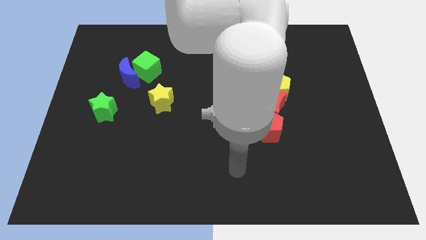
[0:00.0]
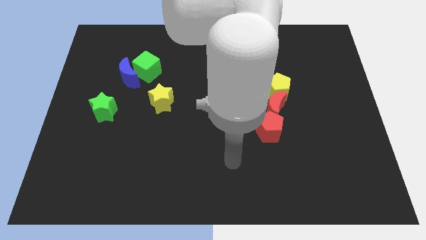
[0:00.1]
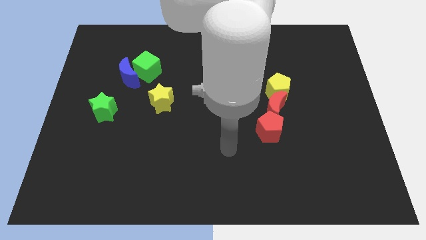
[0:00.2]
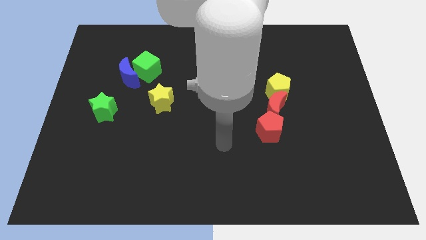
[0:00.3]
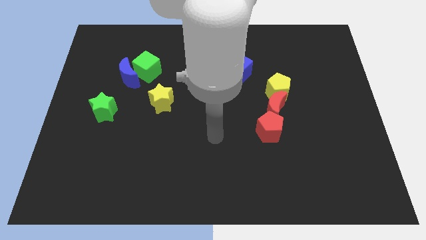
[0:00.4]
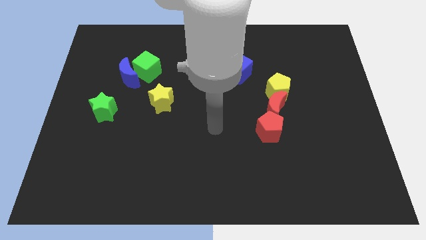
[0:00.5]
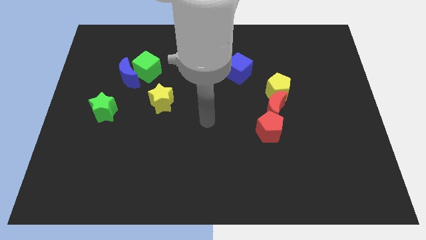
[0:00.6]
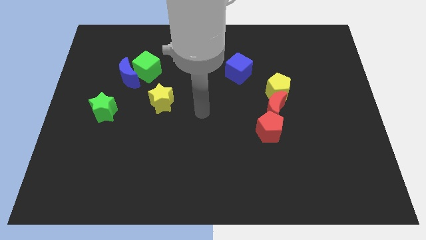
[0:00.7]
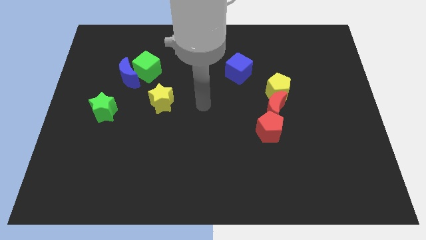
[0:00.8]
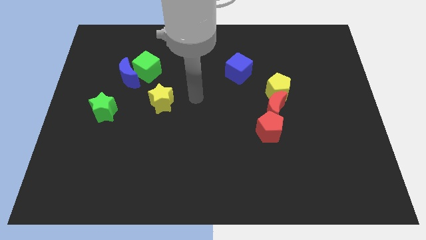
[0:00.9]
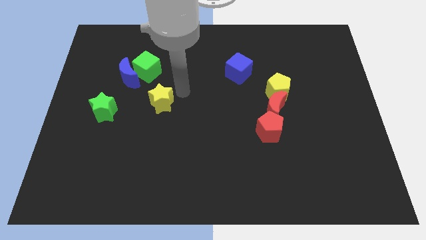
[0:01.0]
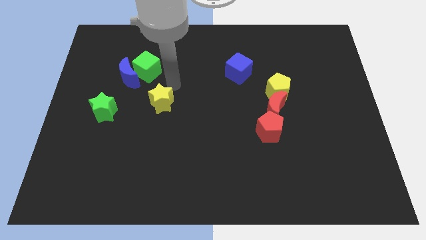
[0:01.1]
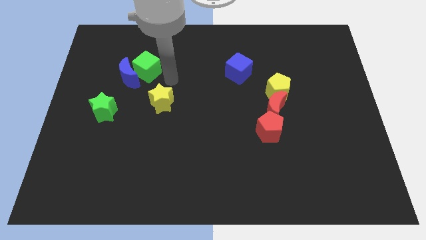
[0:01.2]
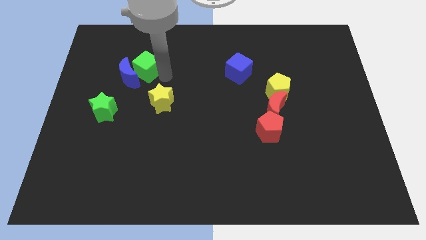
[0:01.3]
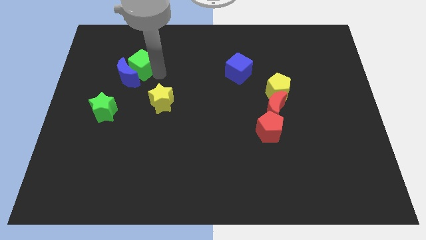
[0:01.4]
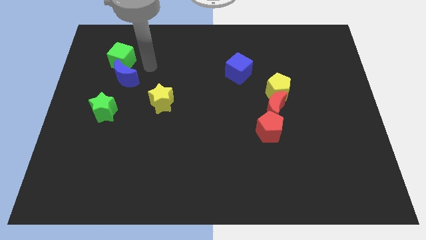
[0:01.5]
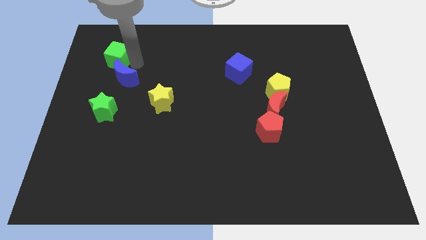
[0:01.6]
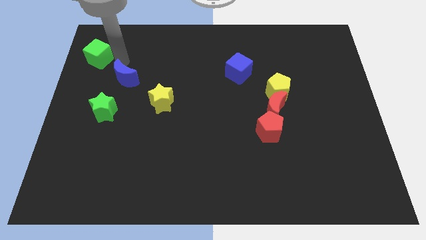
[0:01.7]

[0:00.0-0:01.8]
separate the blue moon from the green cube

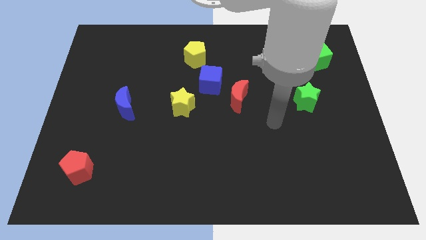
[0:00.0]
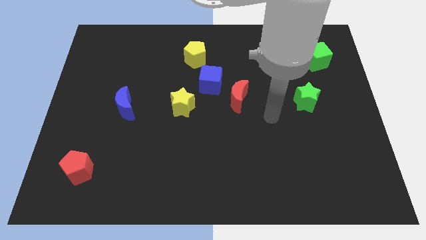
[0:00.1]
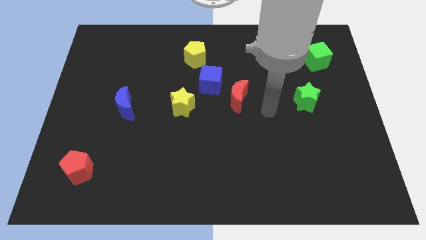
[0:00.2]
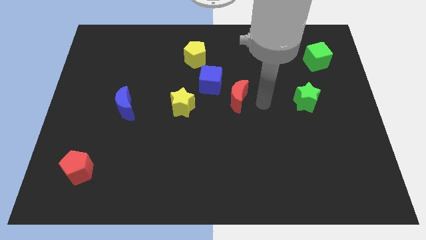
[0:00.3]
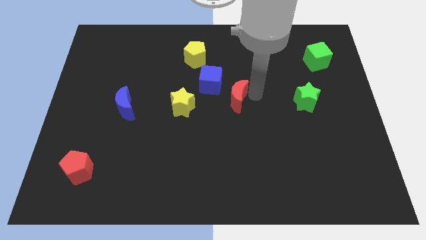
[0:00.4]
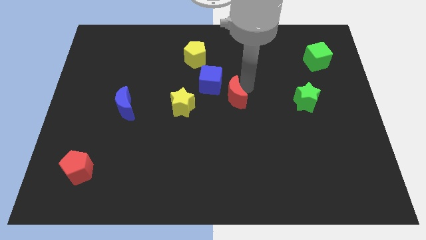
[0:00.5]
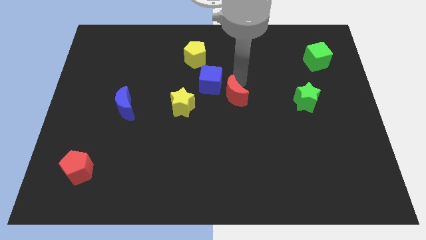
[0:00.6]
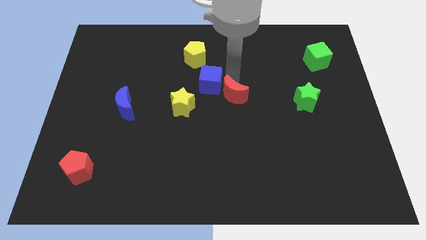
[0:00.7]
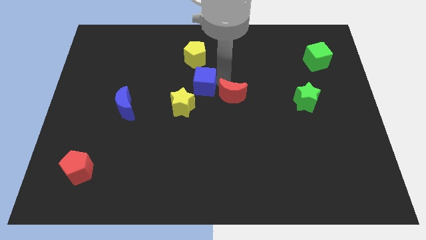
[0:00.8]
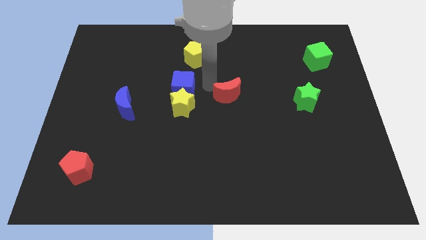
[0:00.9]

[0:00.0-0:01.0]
separate the red moon from the blue cube

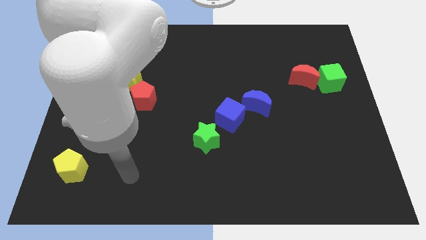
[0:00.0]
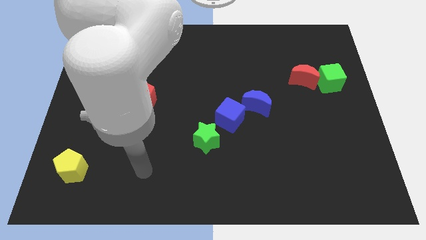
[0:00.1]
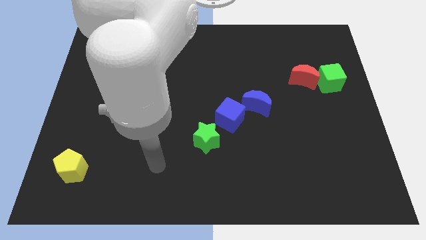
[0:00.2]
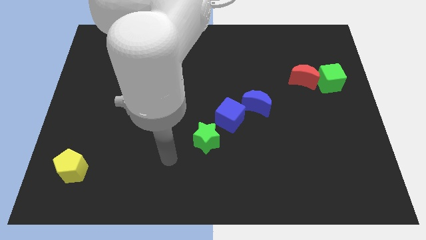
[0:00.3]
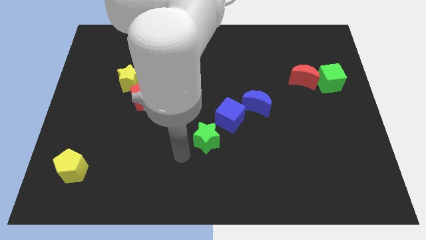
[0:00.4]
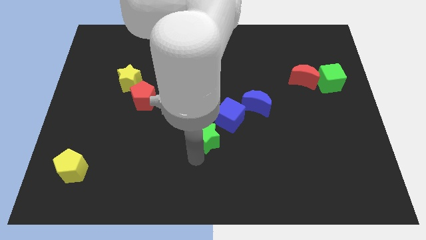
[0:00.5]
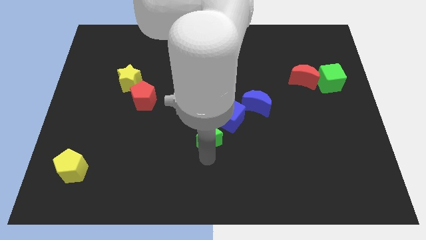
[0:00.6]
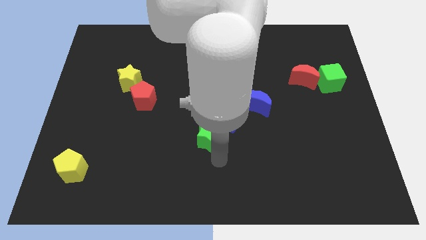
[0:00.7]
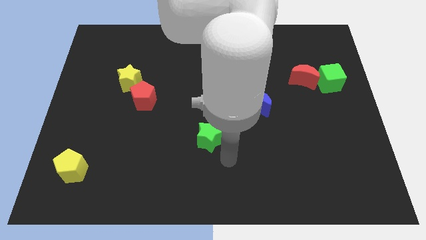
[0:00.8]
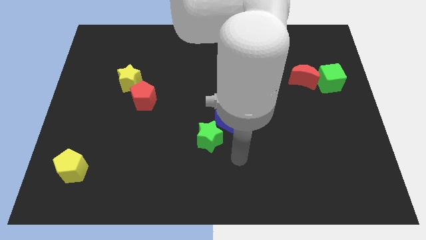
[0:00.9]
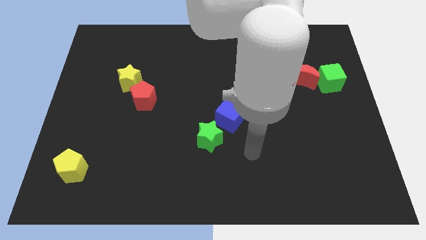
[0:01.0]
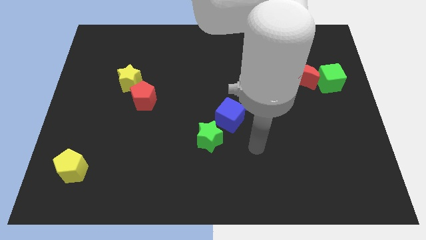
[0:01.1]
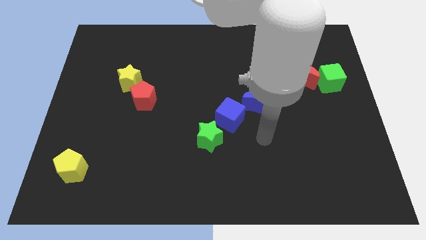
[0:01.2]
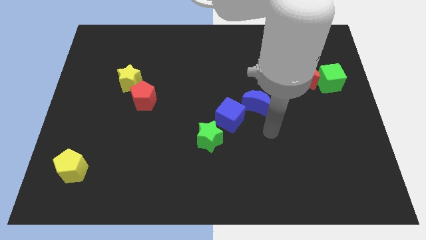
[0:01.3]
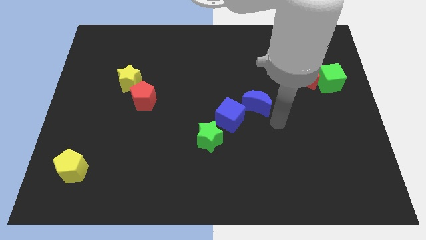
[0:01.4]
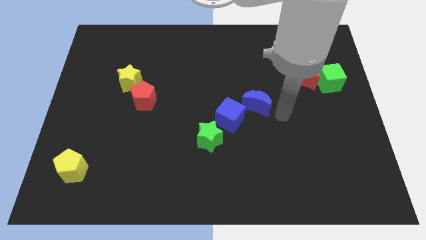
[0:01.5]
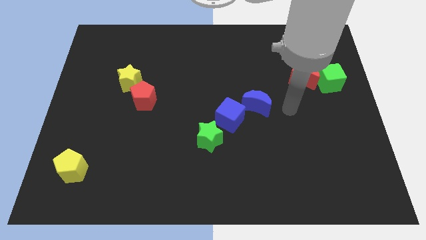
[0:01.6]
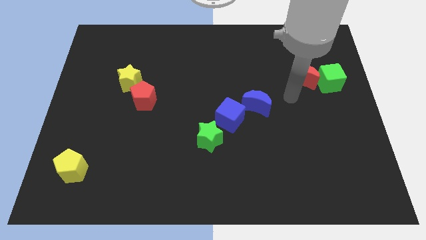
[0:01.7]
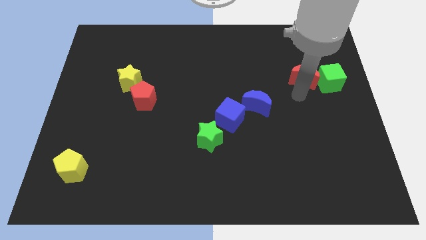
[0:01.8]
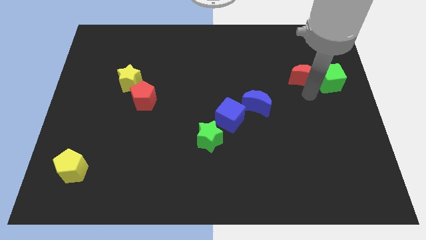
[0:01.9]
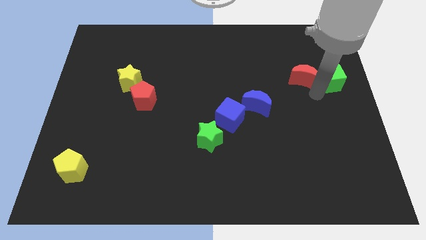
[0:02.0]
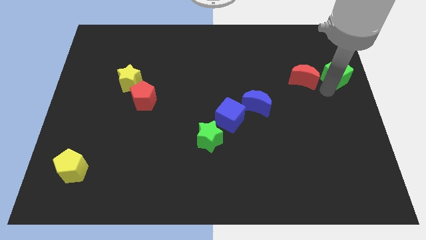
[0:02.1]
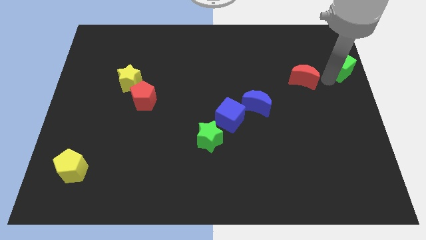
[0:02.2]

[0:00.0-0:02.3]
move the red moon away from the green cube

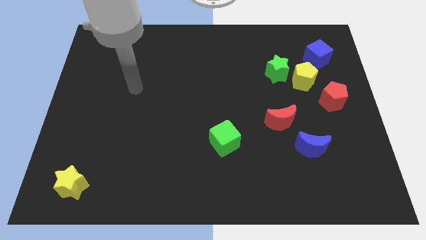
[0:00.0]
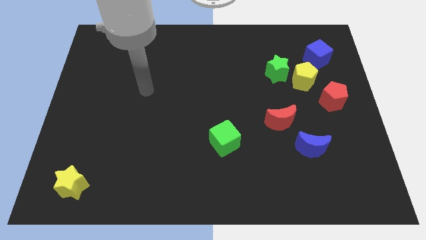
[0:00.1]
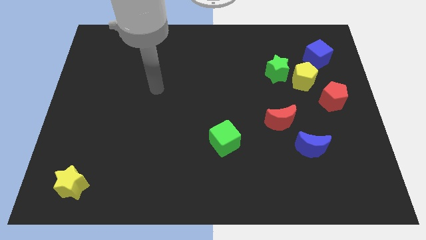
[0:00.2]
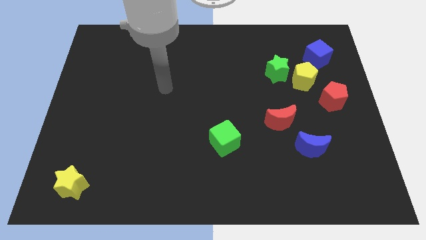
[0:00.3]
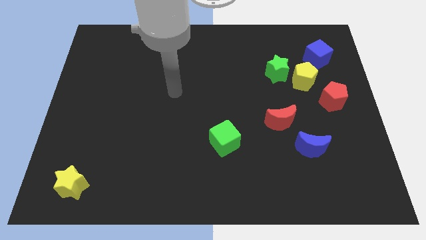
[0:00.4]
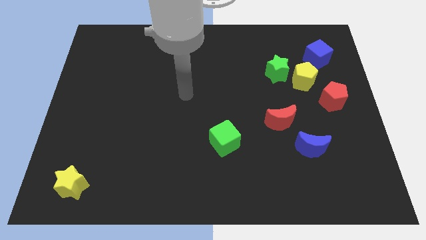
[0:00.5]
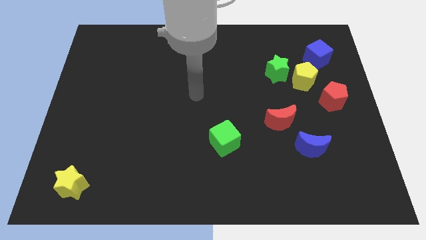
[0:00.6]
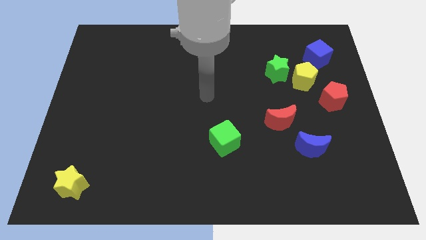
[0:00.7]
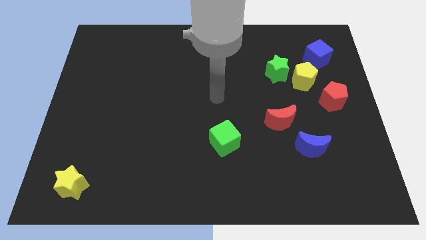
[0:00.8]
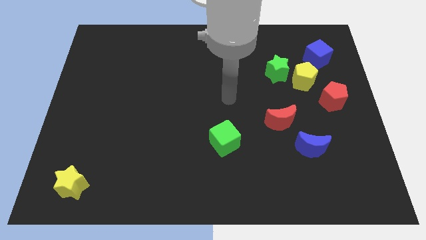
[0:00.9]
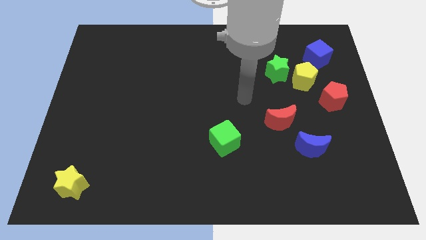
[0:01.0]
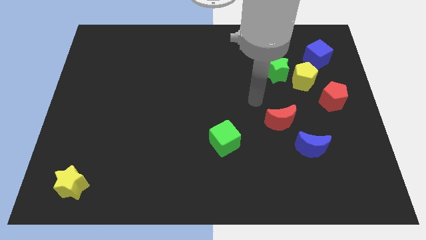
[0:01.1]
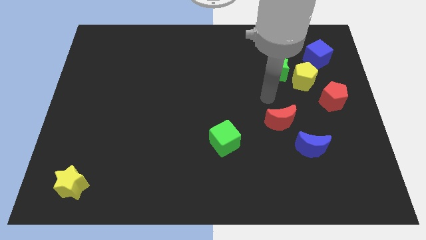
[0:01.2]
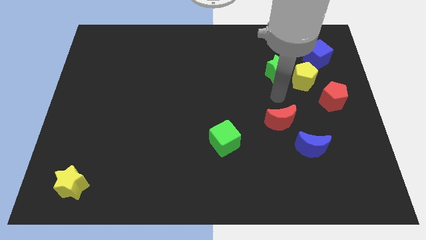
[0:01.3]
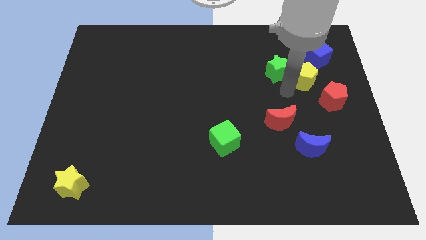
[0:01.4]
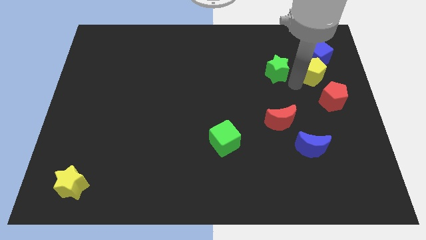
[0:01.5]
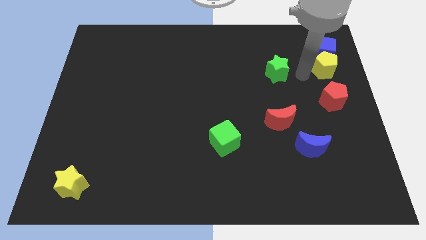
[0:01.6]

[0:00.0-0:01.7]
move the green star away from the yellow pentagon

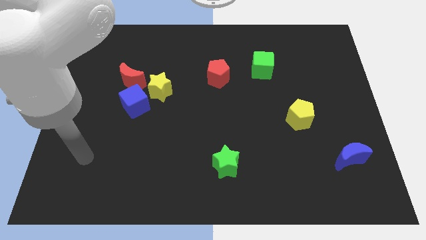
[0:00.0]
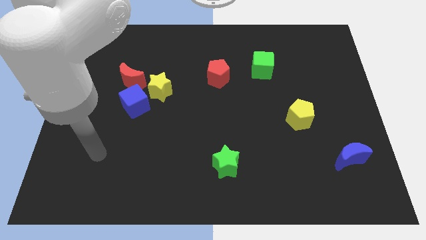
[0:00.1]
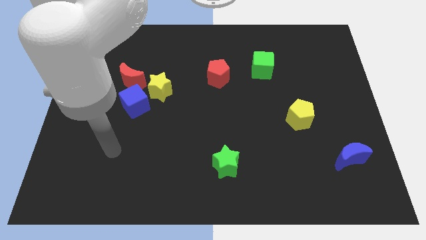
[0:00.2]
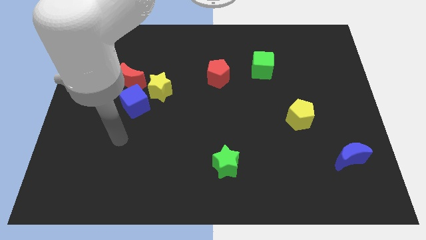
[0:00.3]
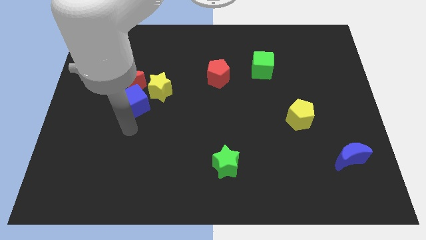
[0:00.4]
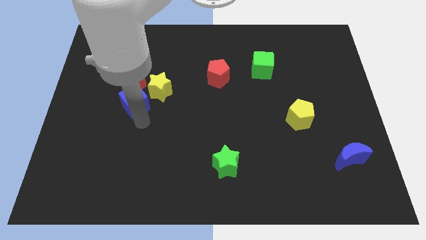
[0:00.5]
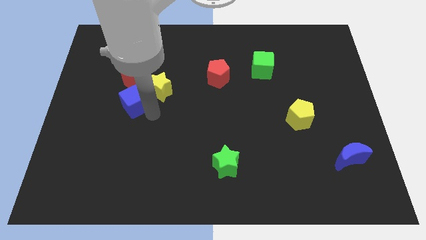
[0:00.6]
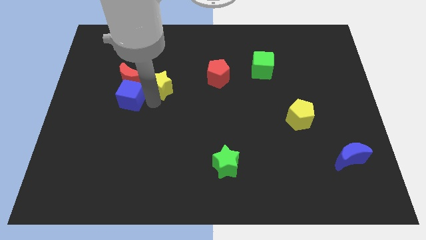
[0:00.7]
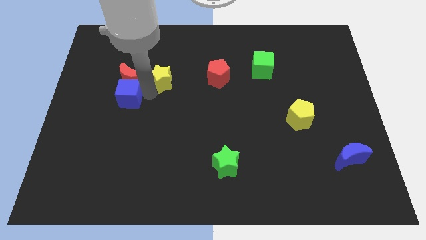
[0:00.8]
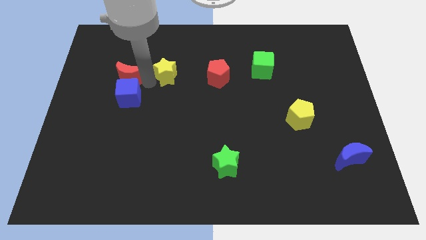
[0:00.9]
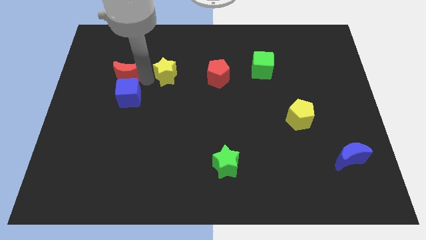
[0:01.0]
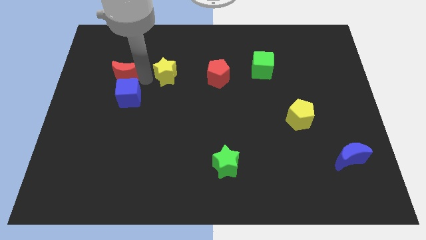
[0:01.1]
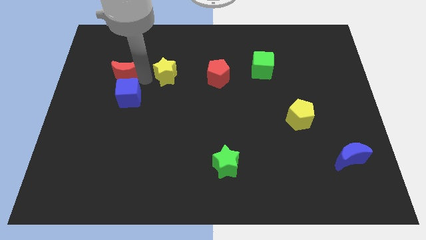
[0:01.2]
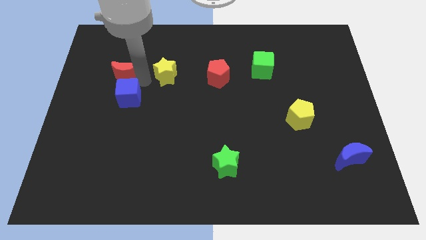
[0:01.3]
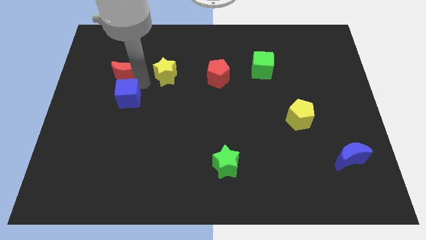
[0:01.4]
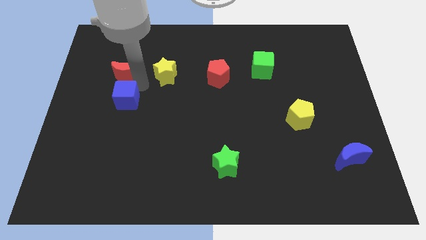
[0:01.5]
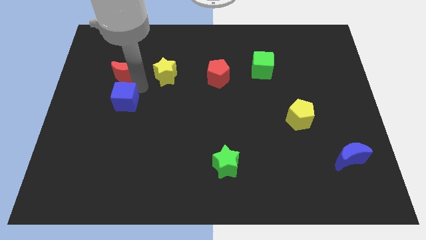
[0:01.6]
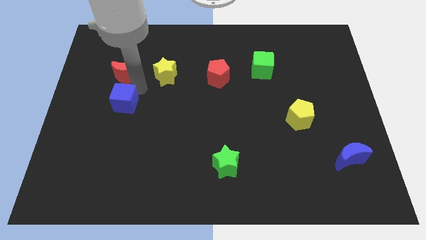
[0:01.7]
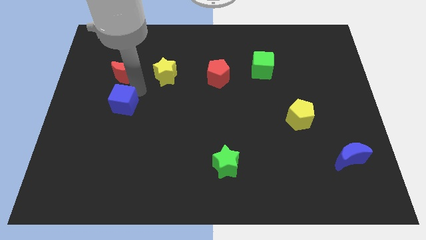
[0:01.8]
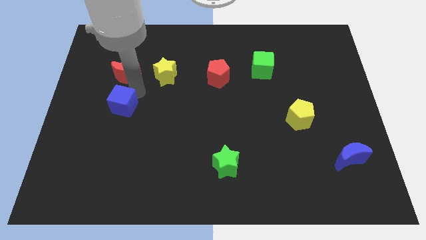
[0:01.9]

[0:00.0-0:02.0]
pull the blue cube apart from the yellow star and red moon

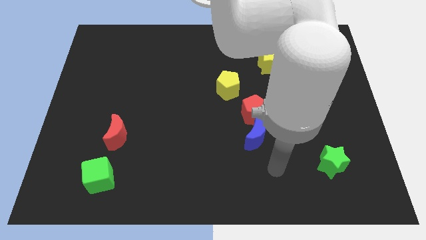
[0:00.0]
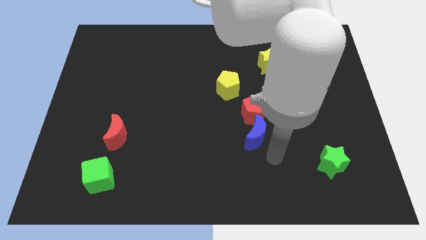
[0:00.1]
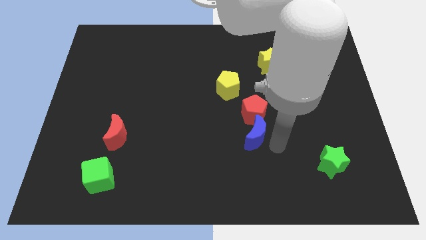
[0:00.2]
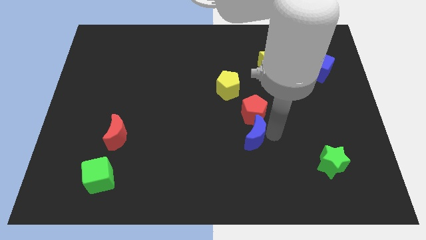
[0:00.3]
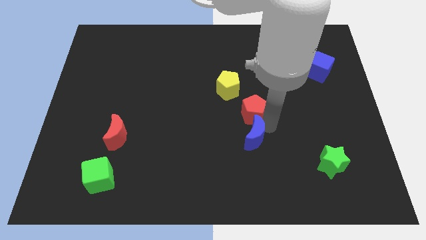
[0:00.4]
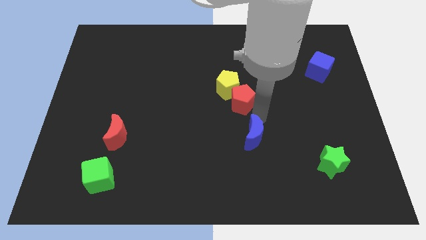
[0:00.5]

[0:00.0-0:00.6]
pull the blue moon apart from the red pentagon
